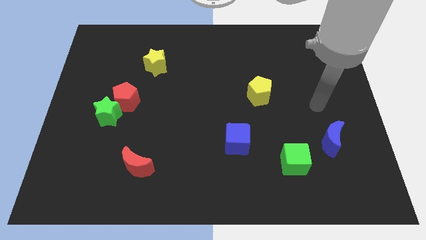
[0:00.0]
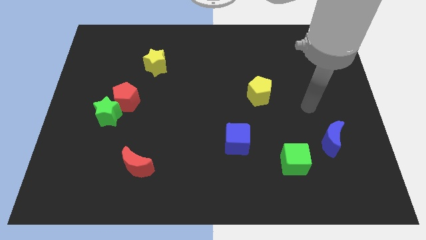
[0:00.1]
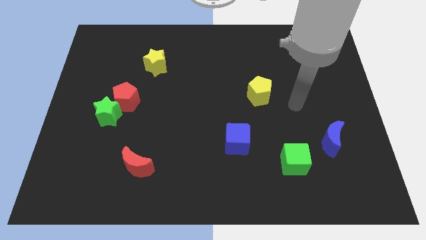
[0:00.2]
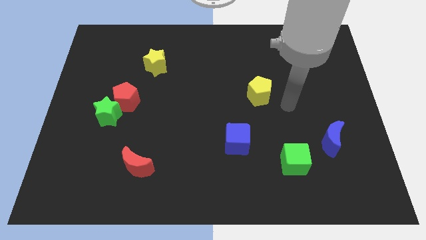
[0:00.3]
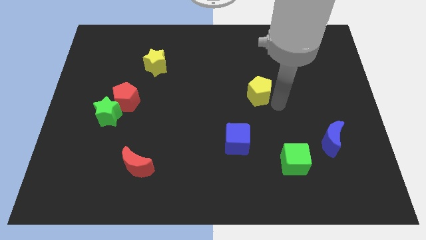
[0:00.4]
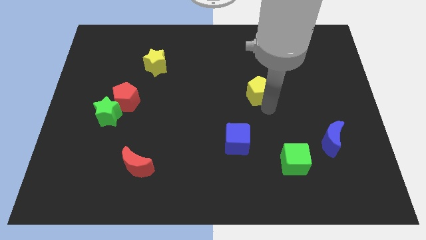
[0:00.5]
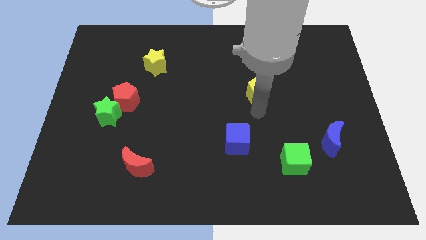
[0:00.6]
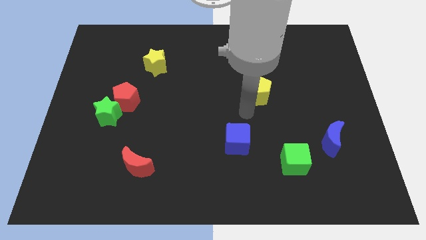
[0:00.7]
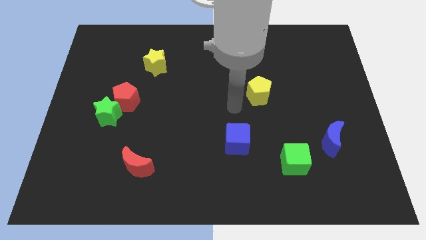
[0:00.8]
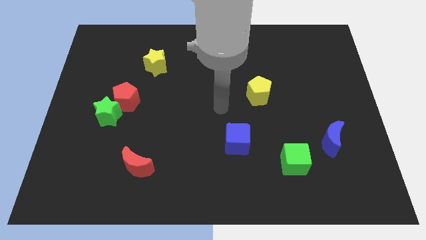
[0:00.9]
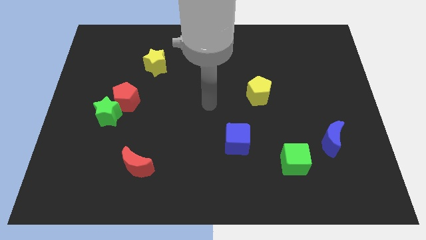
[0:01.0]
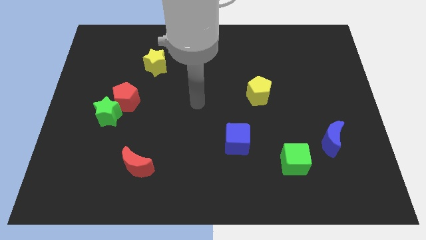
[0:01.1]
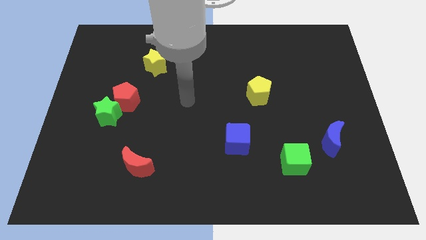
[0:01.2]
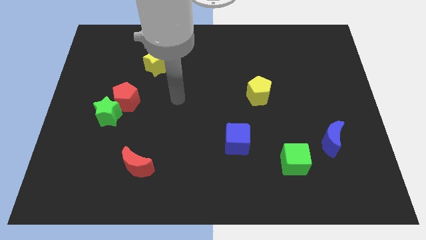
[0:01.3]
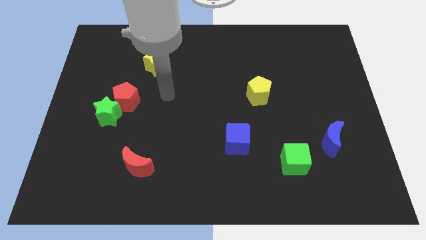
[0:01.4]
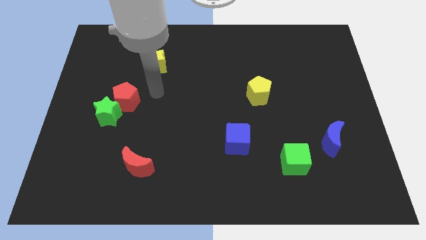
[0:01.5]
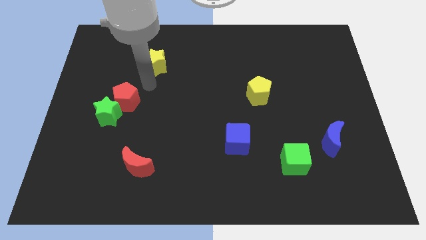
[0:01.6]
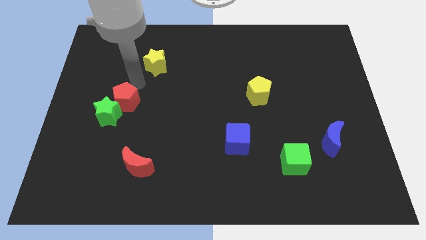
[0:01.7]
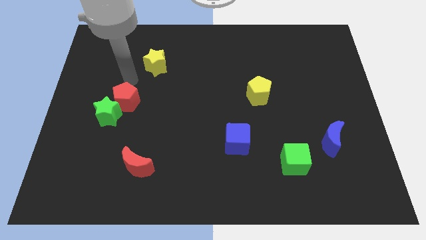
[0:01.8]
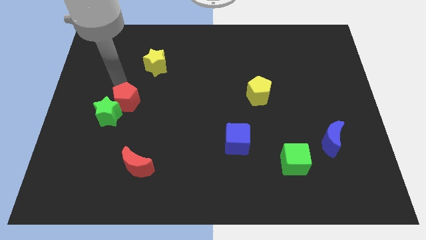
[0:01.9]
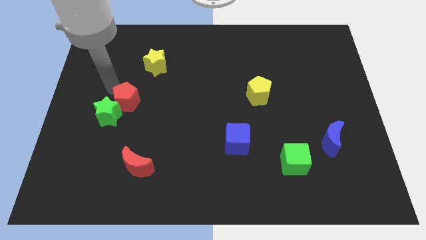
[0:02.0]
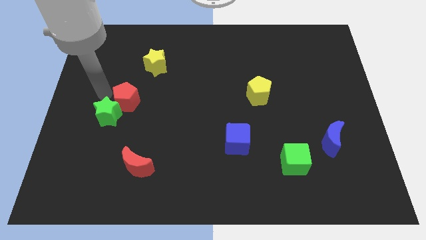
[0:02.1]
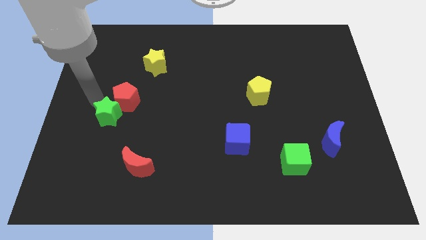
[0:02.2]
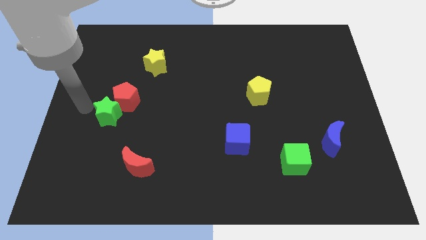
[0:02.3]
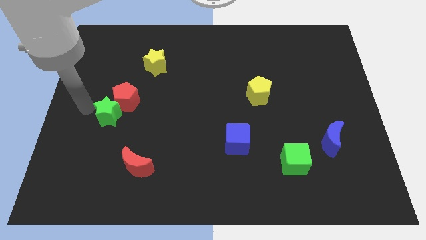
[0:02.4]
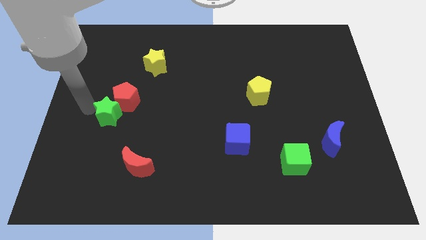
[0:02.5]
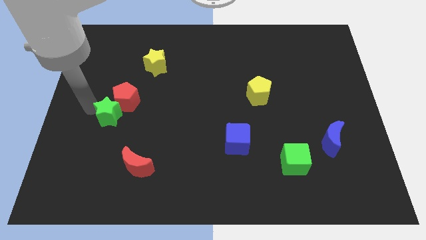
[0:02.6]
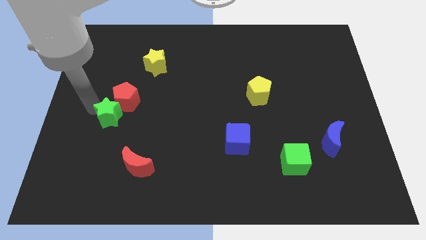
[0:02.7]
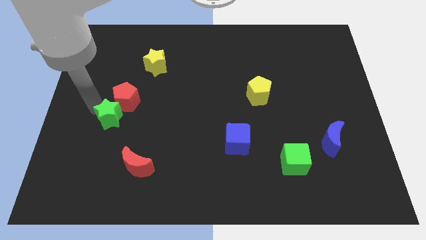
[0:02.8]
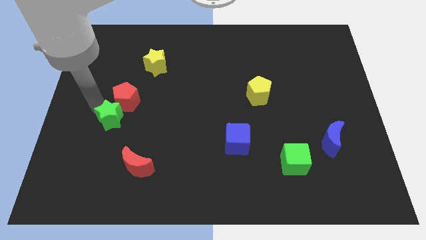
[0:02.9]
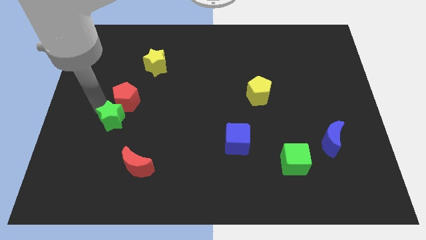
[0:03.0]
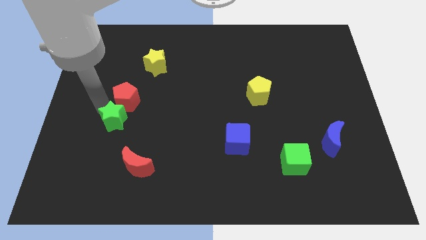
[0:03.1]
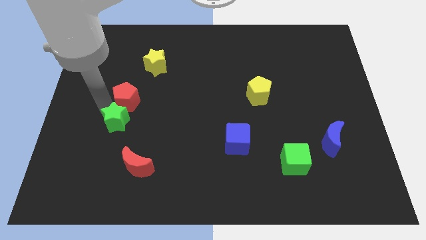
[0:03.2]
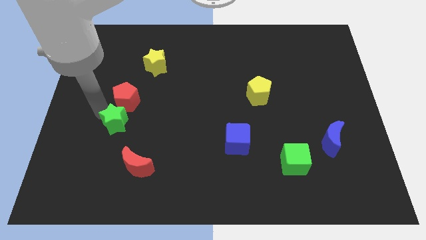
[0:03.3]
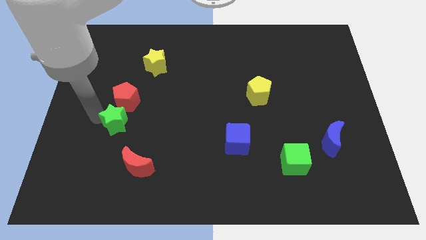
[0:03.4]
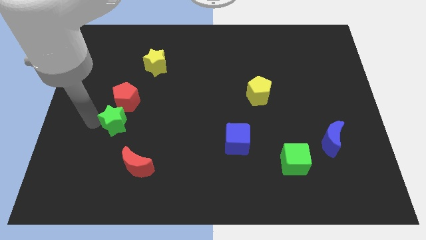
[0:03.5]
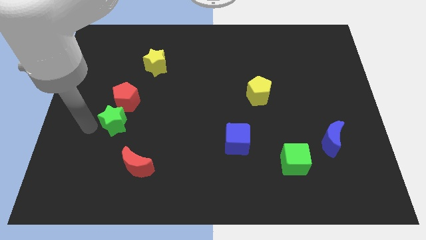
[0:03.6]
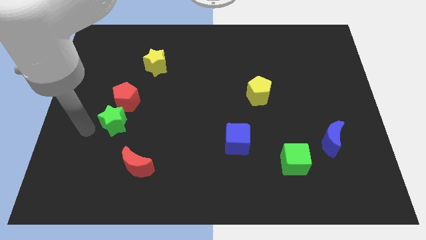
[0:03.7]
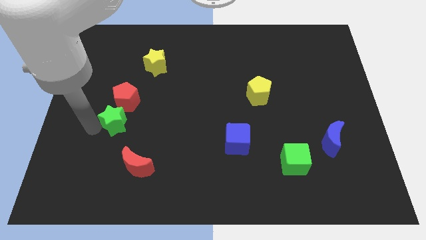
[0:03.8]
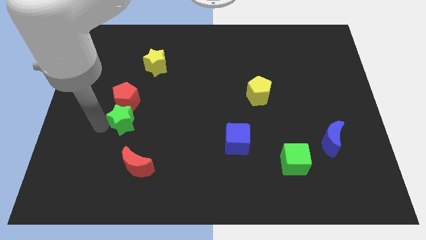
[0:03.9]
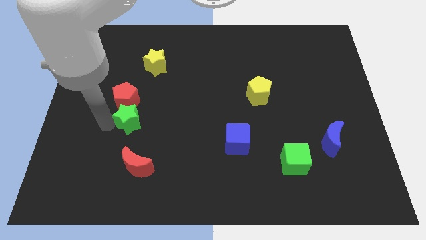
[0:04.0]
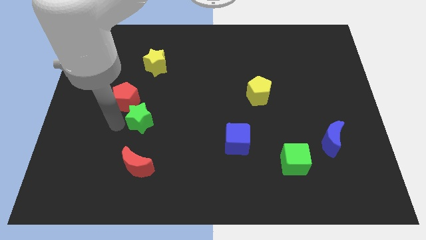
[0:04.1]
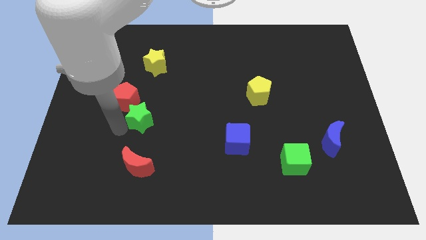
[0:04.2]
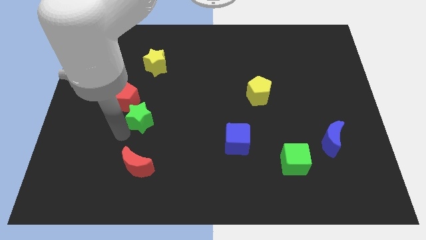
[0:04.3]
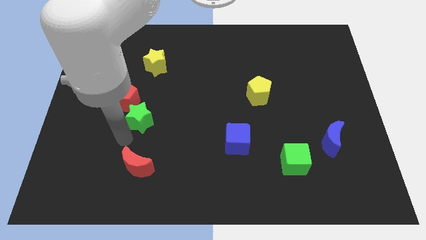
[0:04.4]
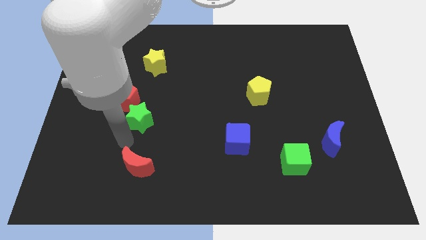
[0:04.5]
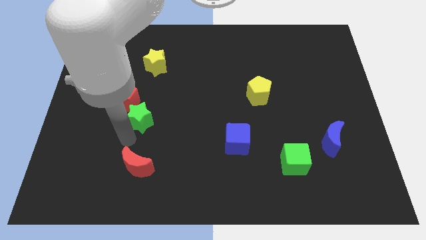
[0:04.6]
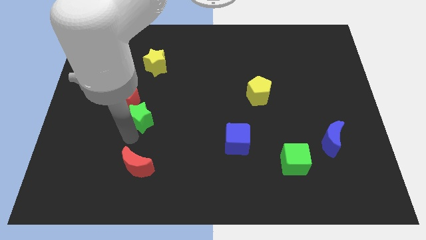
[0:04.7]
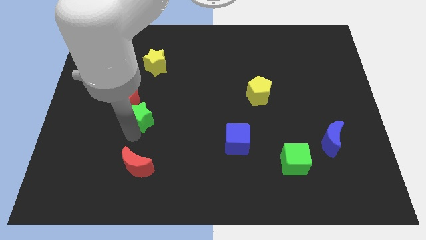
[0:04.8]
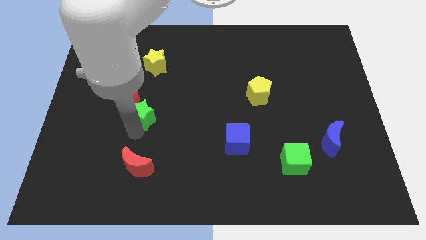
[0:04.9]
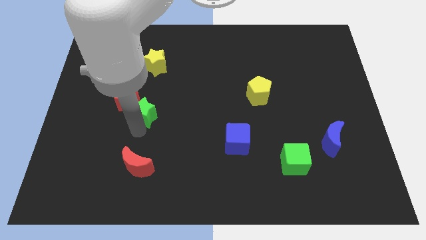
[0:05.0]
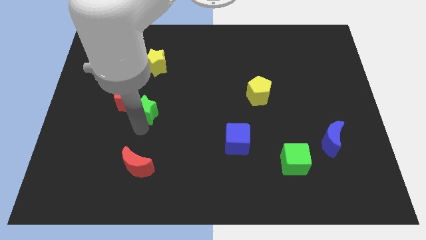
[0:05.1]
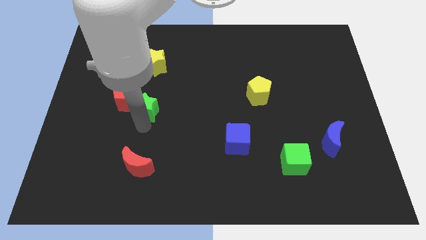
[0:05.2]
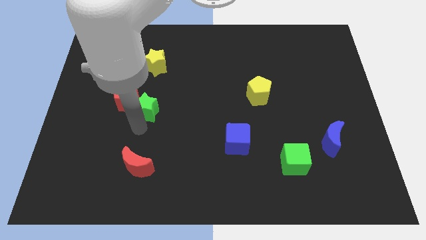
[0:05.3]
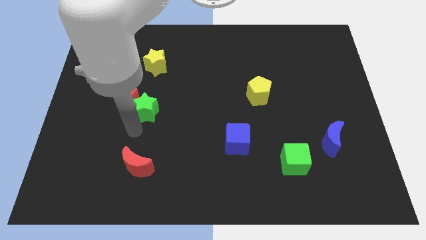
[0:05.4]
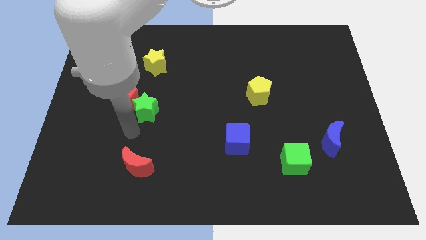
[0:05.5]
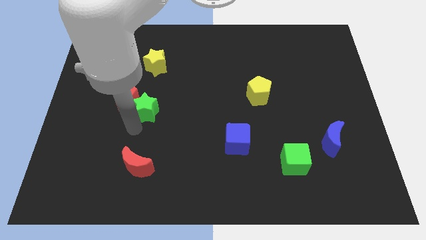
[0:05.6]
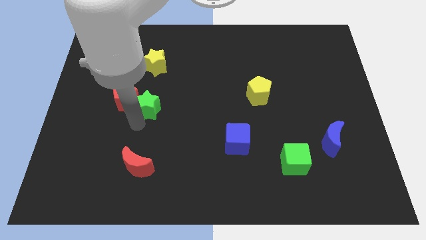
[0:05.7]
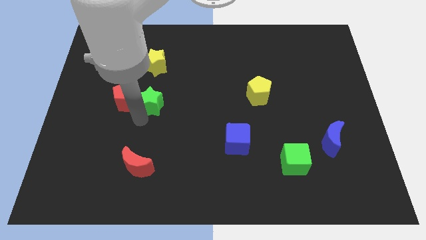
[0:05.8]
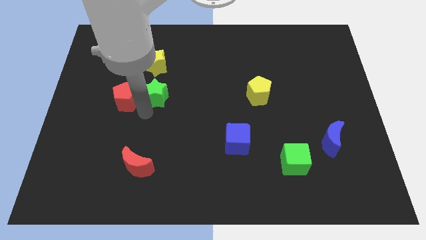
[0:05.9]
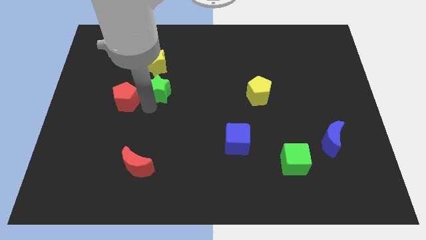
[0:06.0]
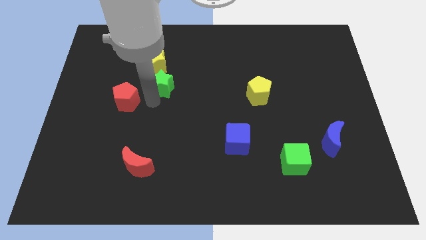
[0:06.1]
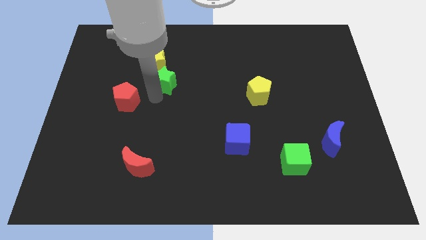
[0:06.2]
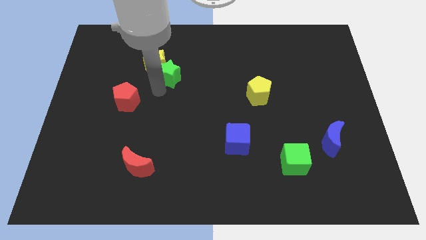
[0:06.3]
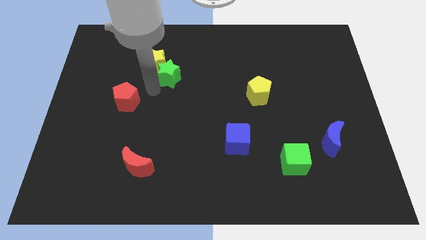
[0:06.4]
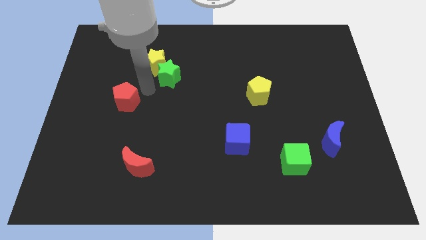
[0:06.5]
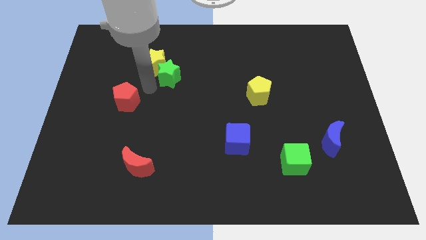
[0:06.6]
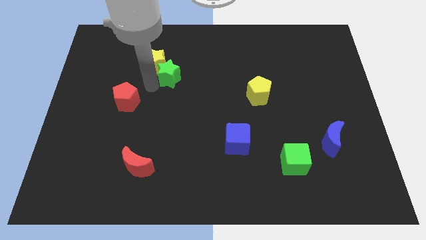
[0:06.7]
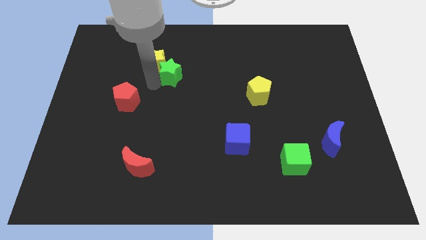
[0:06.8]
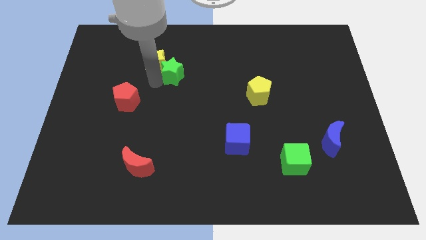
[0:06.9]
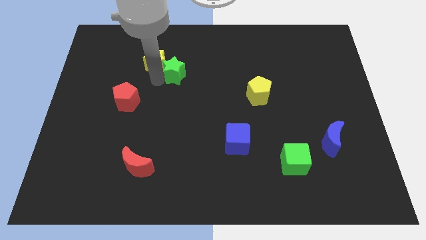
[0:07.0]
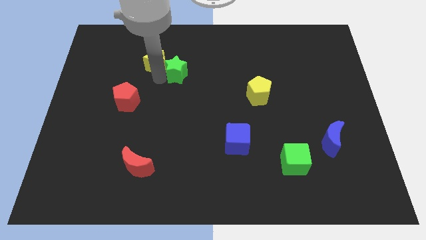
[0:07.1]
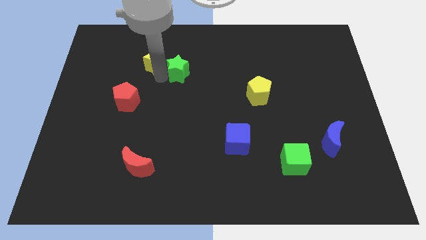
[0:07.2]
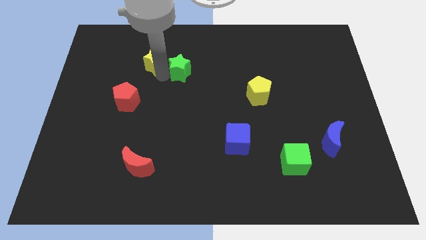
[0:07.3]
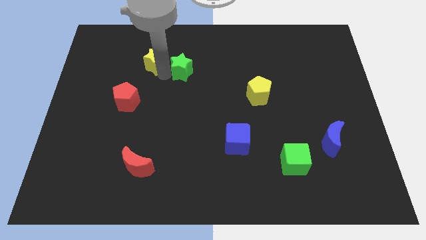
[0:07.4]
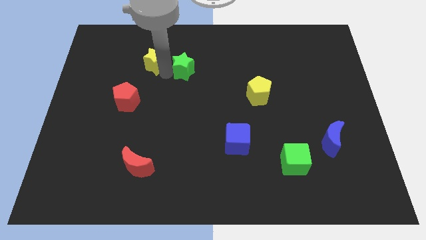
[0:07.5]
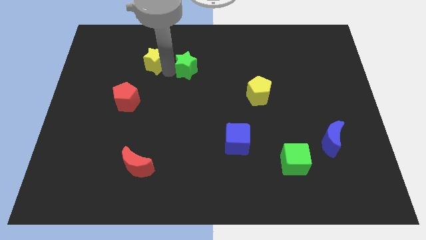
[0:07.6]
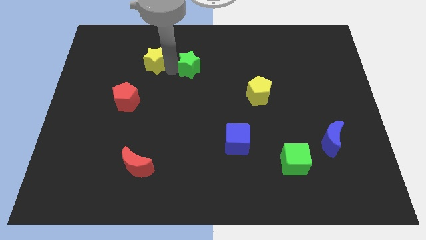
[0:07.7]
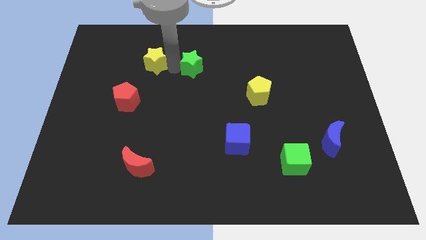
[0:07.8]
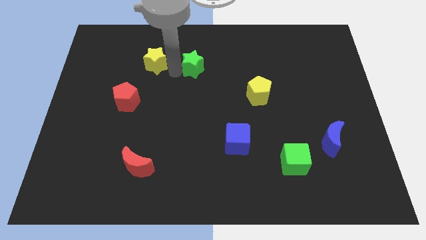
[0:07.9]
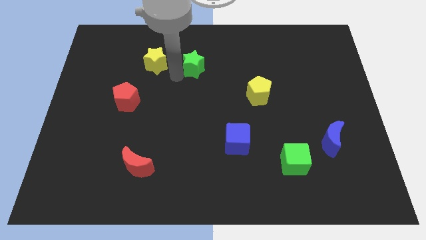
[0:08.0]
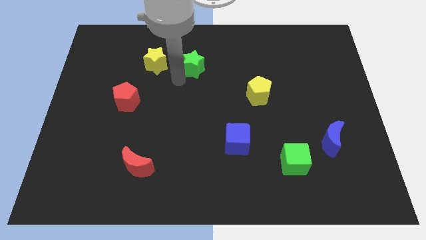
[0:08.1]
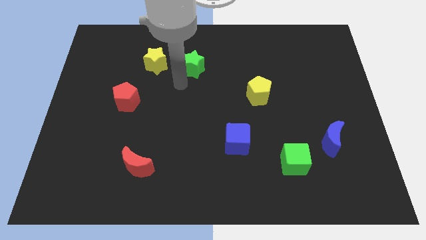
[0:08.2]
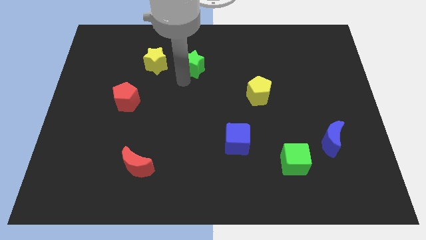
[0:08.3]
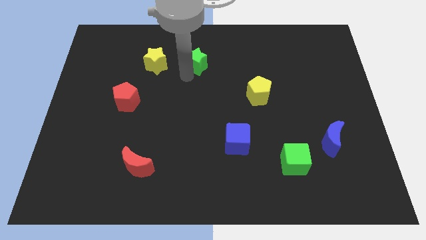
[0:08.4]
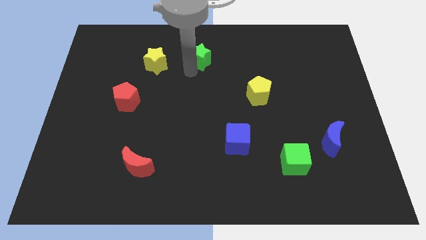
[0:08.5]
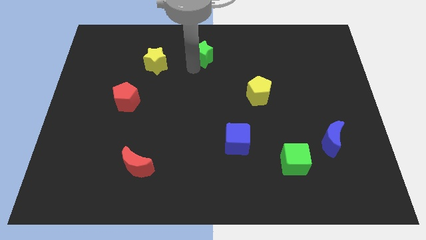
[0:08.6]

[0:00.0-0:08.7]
slide the green star to the top
